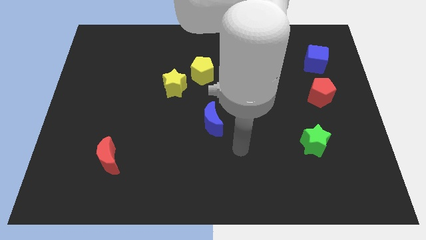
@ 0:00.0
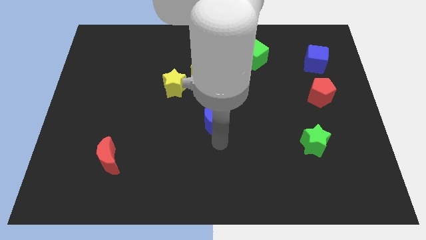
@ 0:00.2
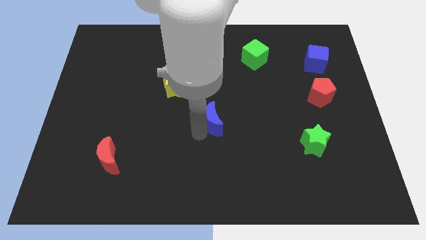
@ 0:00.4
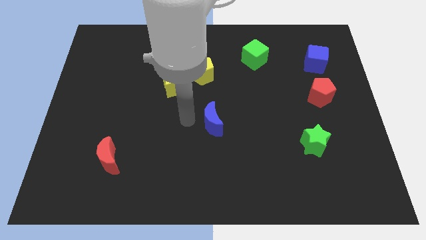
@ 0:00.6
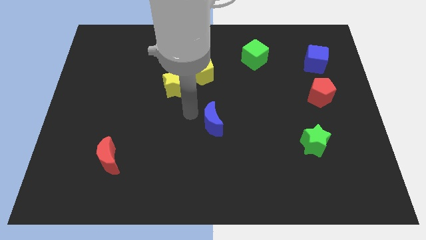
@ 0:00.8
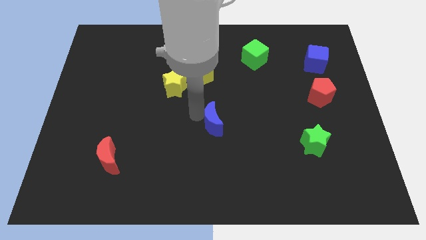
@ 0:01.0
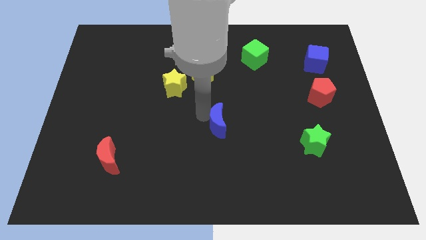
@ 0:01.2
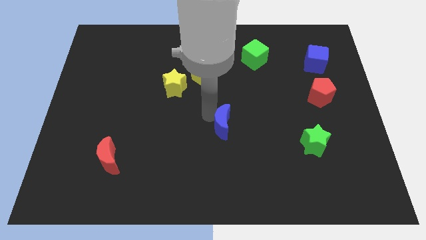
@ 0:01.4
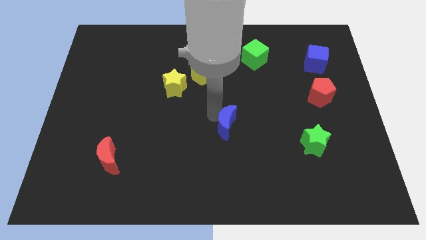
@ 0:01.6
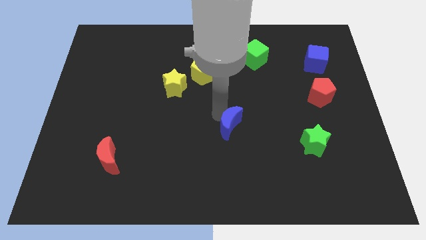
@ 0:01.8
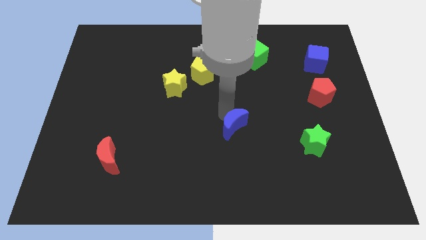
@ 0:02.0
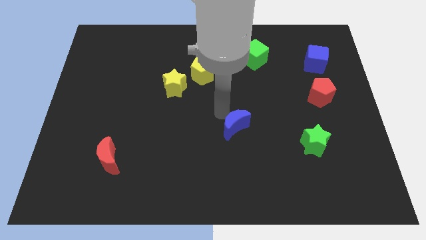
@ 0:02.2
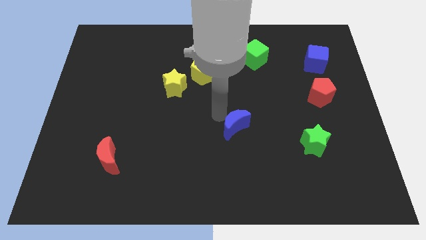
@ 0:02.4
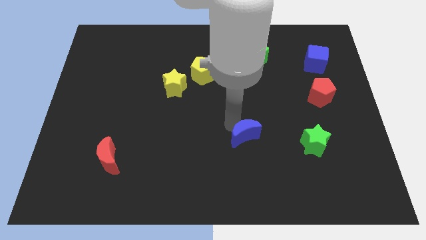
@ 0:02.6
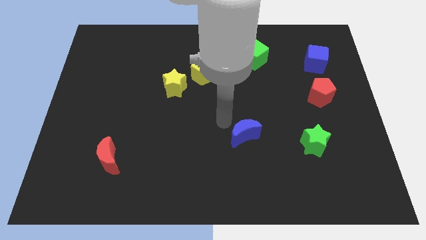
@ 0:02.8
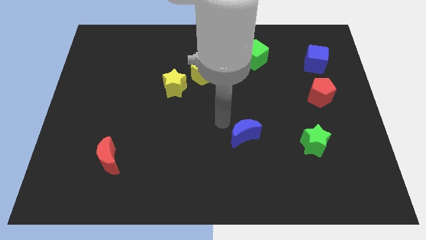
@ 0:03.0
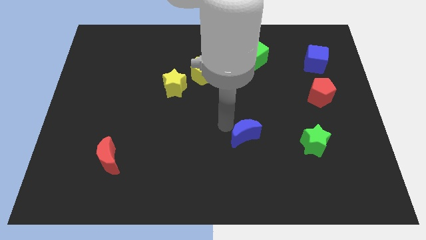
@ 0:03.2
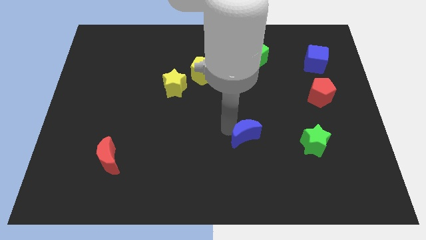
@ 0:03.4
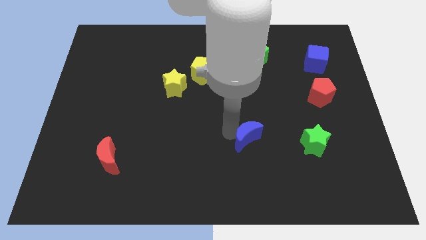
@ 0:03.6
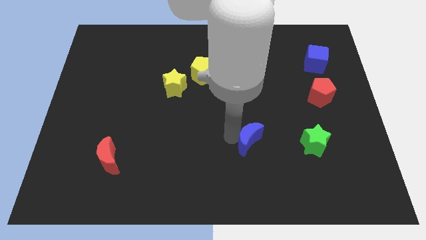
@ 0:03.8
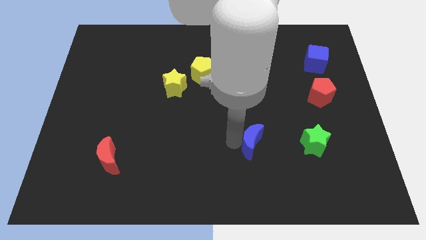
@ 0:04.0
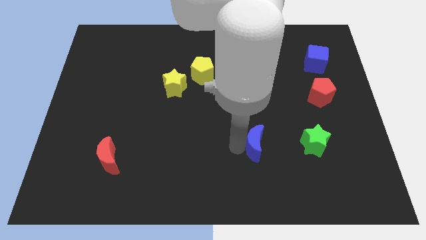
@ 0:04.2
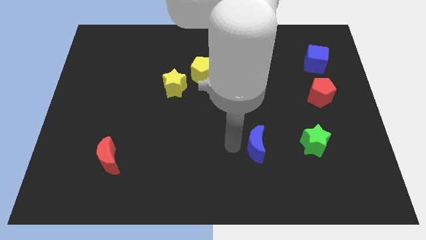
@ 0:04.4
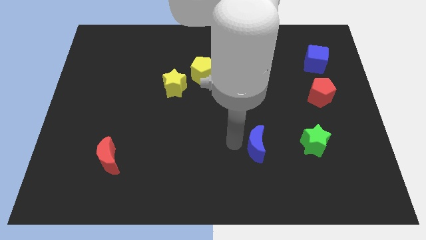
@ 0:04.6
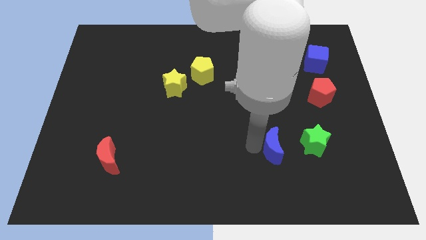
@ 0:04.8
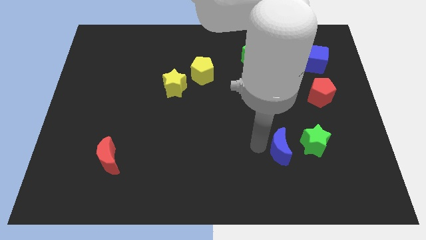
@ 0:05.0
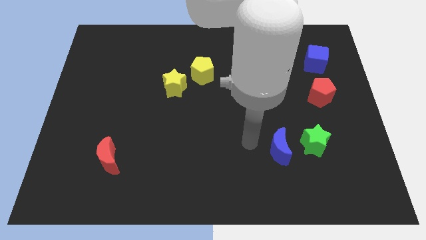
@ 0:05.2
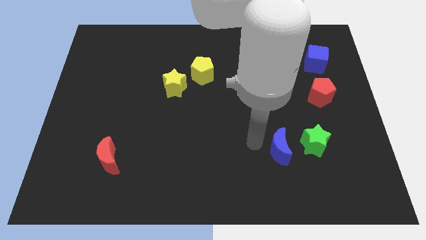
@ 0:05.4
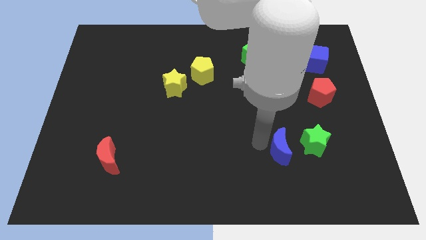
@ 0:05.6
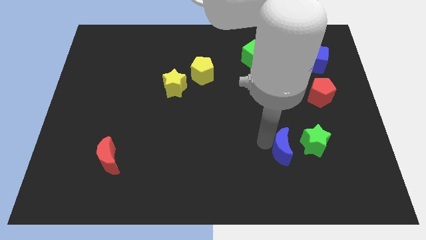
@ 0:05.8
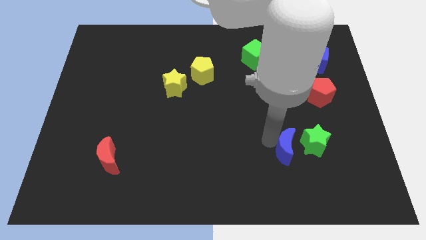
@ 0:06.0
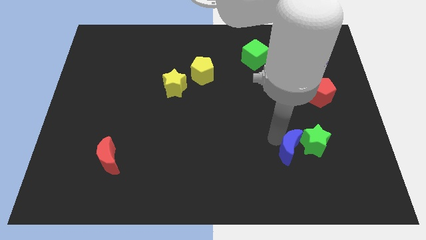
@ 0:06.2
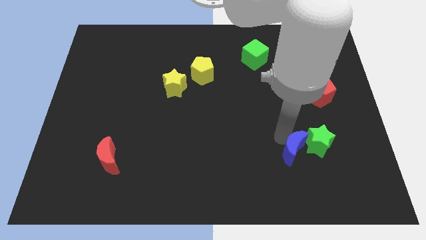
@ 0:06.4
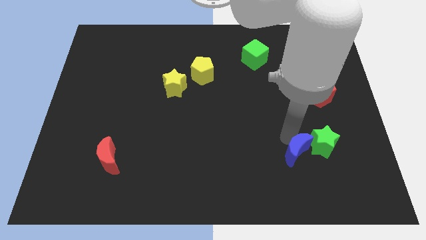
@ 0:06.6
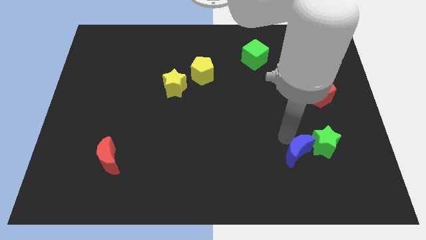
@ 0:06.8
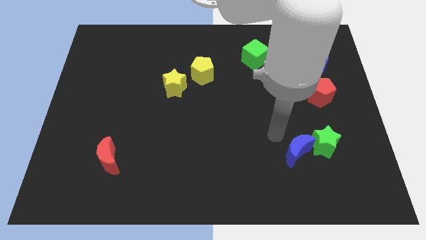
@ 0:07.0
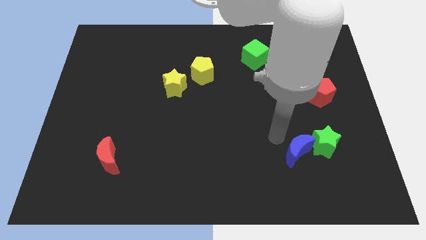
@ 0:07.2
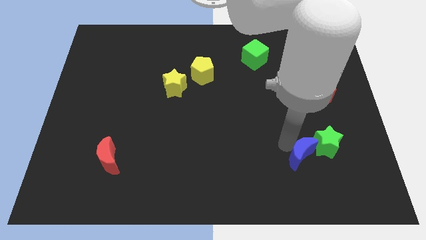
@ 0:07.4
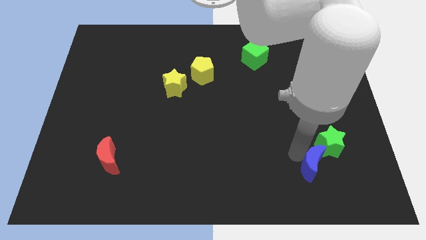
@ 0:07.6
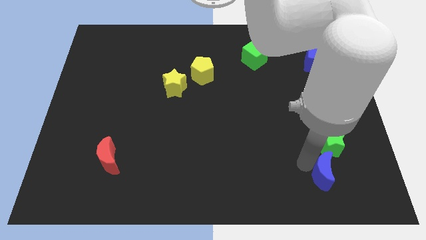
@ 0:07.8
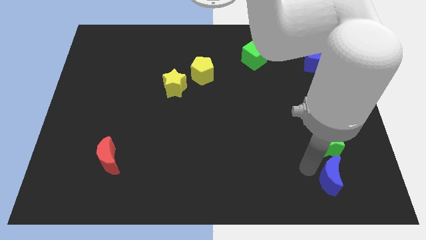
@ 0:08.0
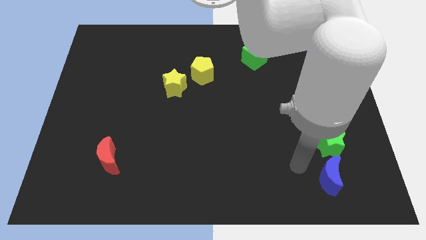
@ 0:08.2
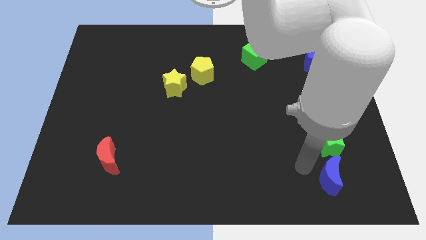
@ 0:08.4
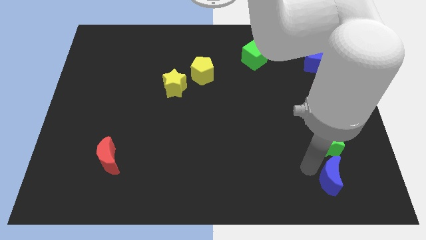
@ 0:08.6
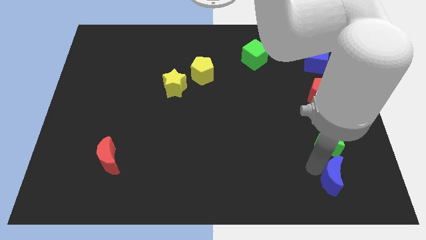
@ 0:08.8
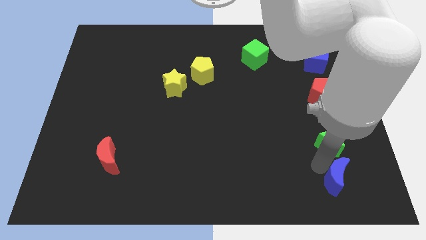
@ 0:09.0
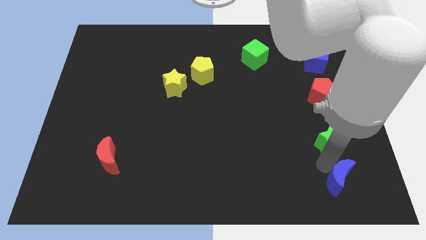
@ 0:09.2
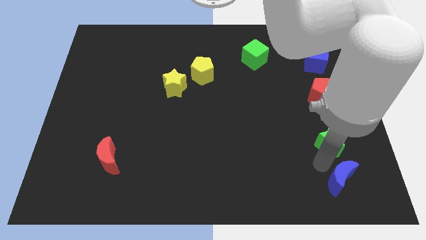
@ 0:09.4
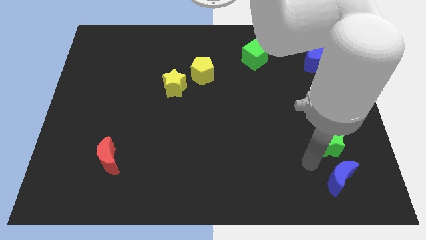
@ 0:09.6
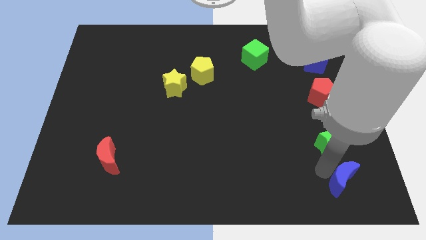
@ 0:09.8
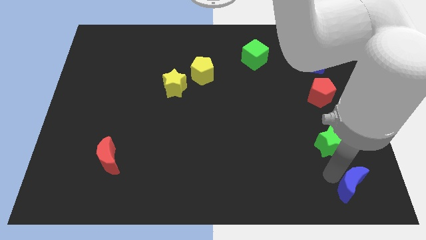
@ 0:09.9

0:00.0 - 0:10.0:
move the blue moon to the bottom right corner
